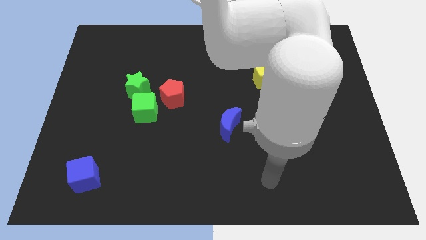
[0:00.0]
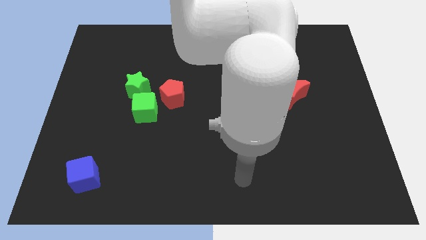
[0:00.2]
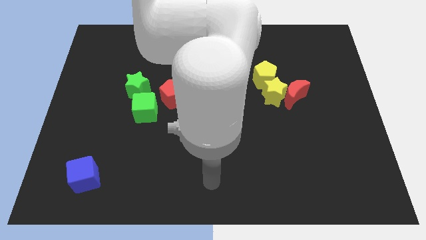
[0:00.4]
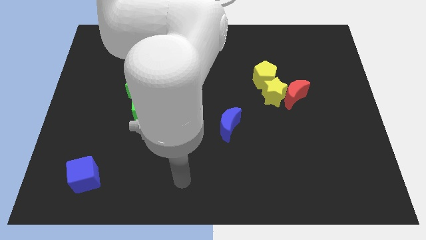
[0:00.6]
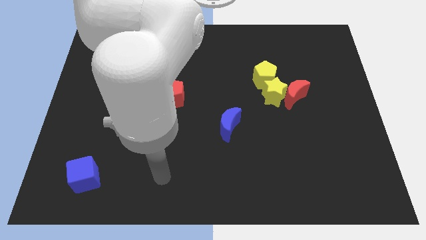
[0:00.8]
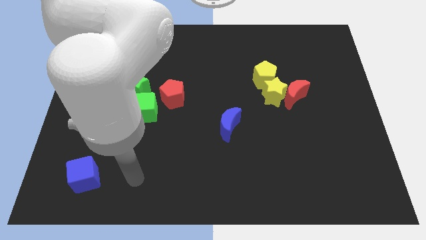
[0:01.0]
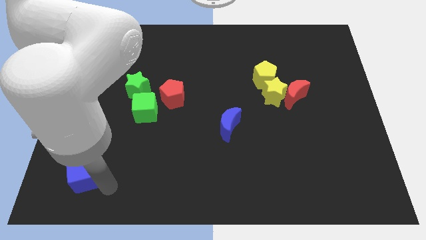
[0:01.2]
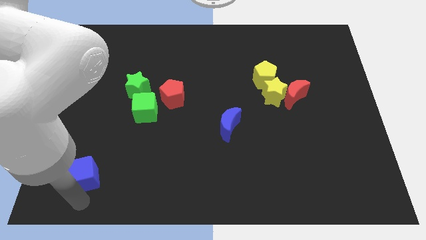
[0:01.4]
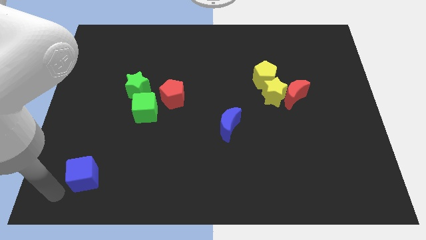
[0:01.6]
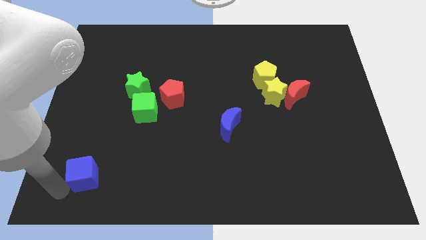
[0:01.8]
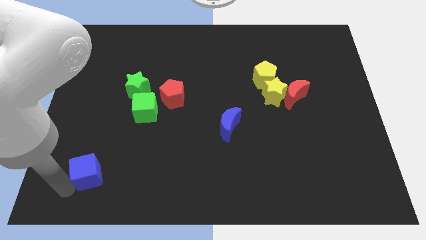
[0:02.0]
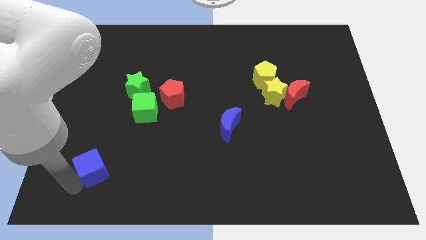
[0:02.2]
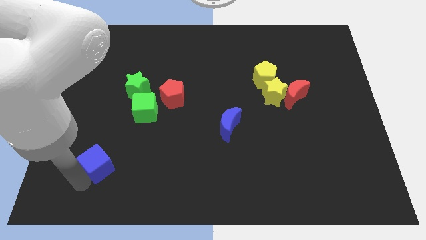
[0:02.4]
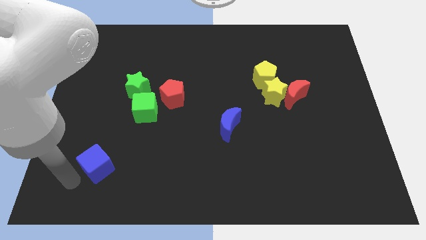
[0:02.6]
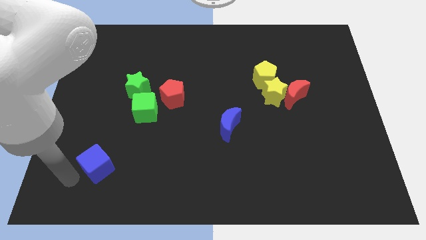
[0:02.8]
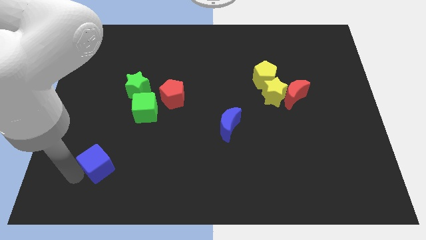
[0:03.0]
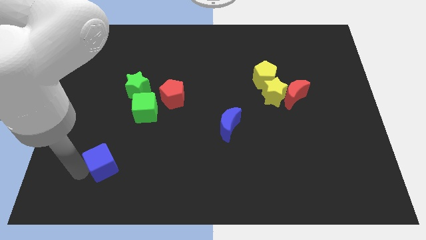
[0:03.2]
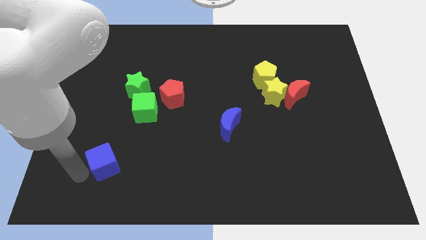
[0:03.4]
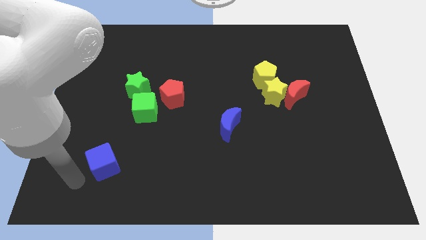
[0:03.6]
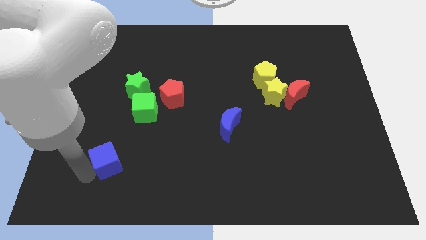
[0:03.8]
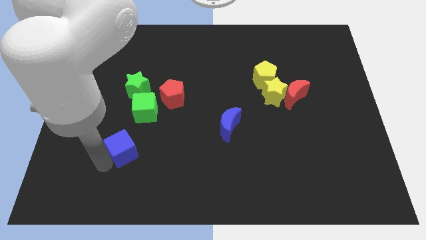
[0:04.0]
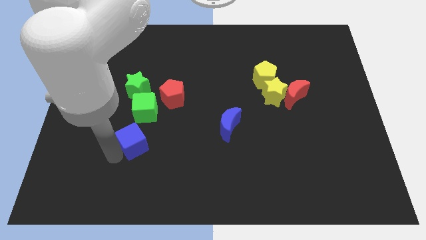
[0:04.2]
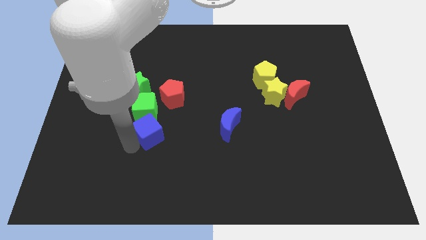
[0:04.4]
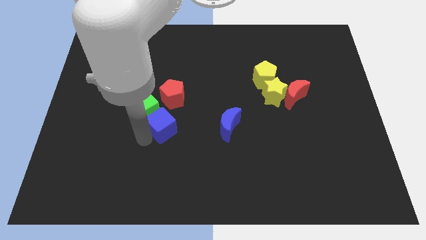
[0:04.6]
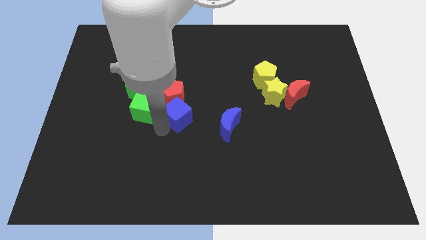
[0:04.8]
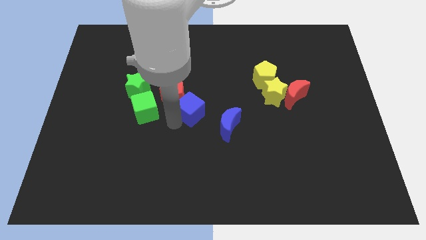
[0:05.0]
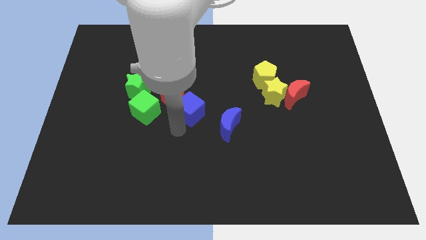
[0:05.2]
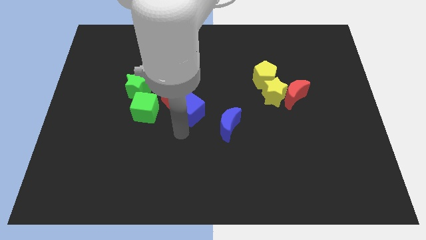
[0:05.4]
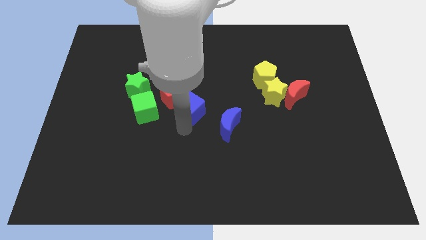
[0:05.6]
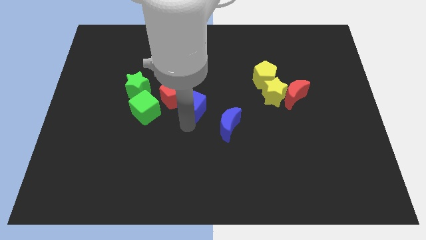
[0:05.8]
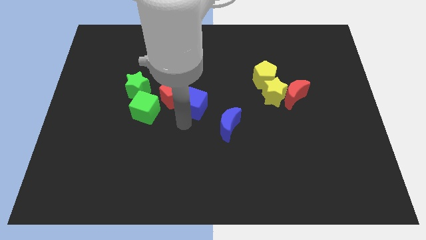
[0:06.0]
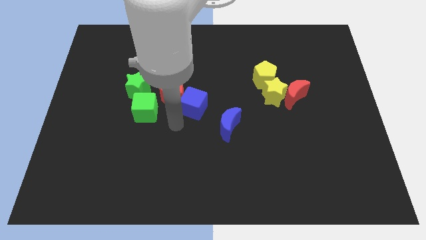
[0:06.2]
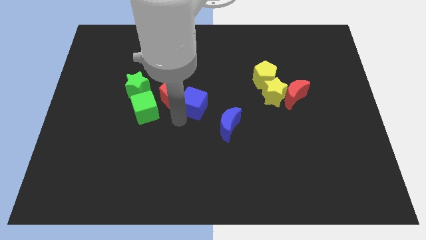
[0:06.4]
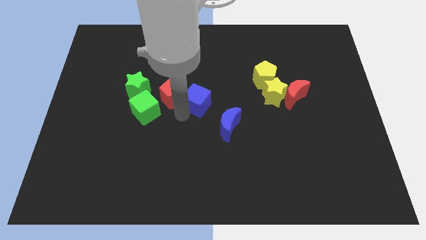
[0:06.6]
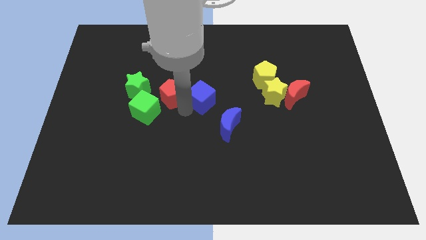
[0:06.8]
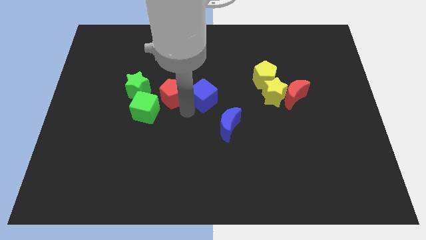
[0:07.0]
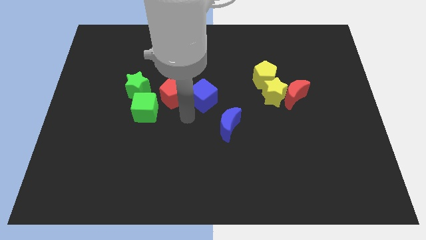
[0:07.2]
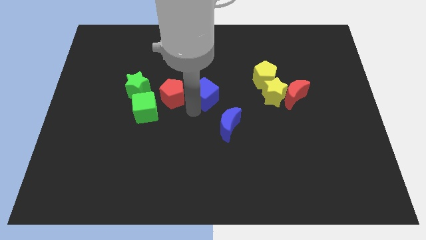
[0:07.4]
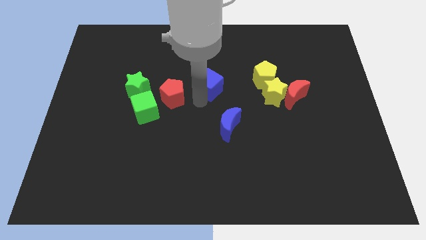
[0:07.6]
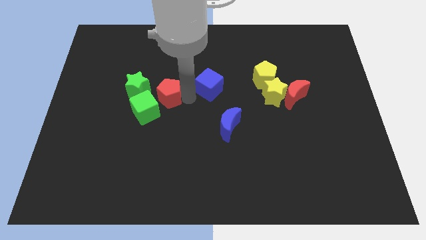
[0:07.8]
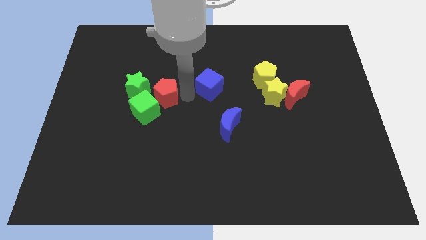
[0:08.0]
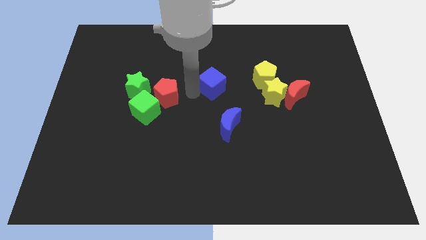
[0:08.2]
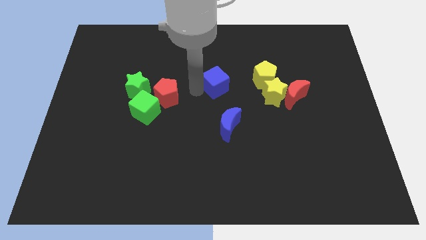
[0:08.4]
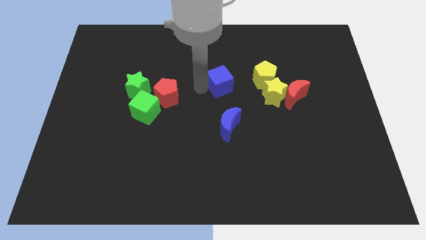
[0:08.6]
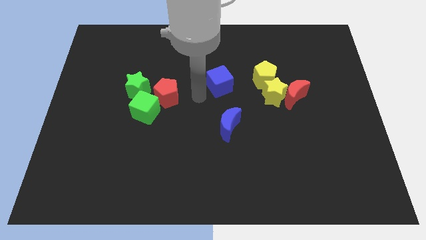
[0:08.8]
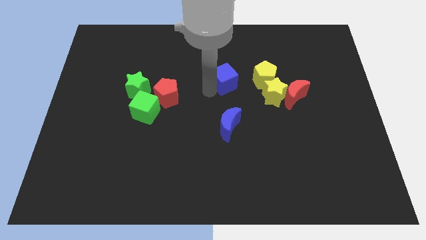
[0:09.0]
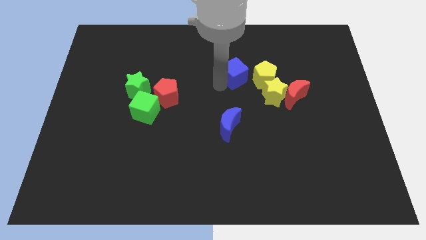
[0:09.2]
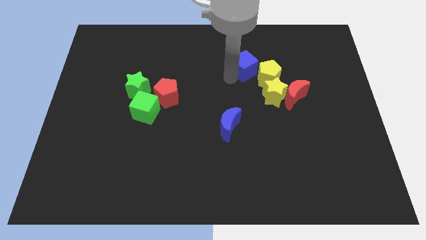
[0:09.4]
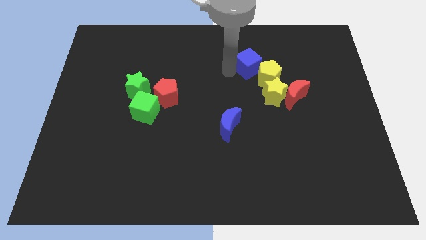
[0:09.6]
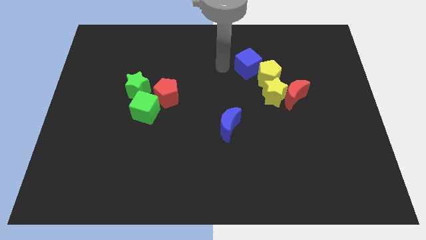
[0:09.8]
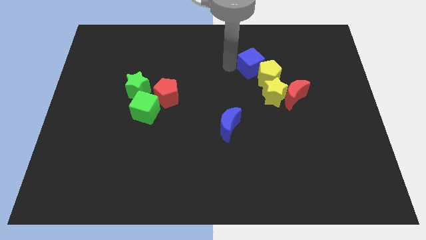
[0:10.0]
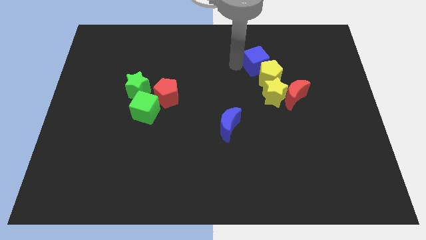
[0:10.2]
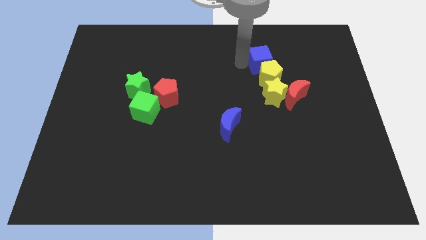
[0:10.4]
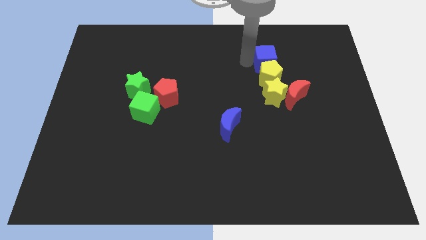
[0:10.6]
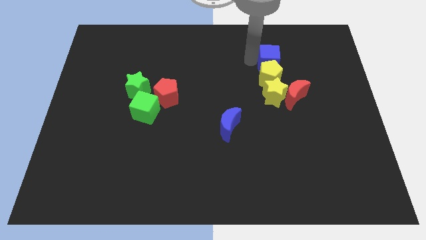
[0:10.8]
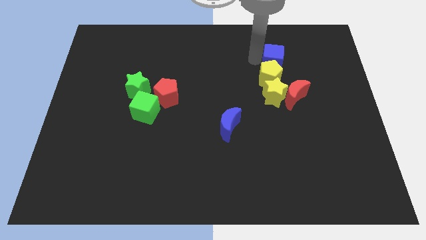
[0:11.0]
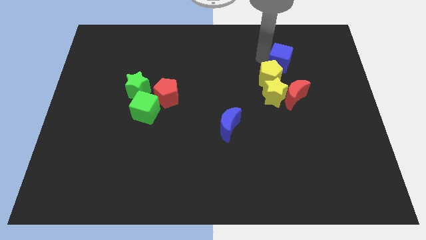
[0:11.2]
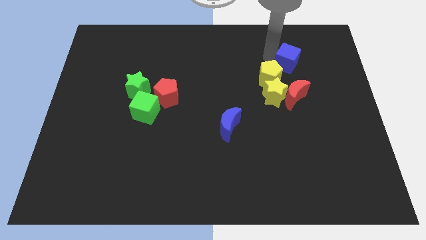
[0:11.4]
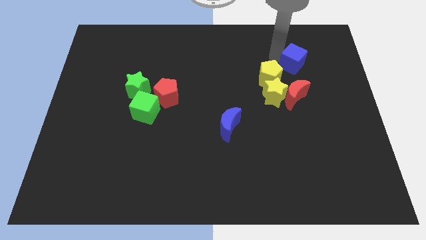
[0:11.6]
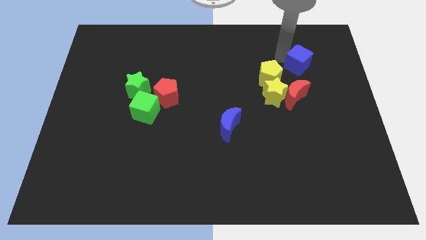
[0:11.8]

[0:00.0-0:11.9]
push the blue cube to the right side of the yellow pentagon
